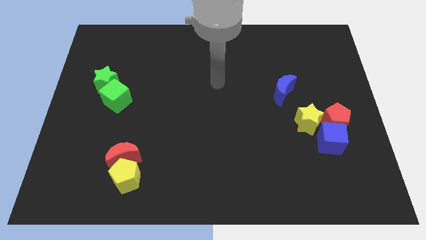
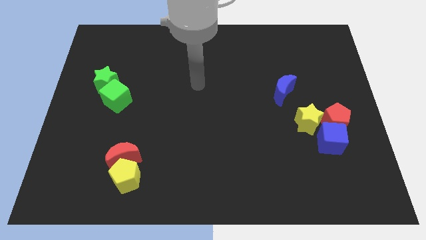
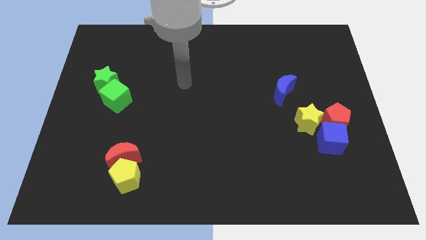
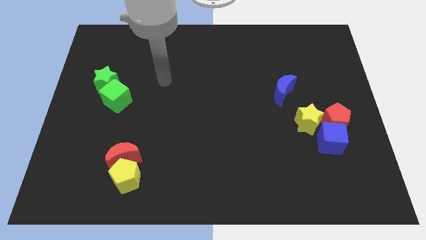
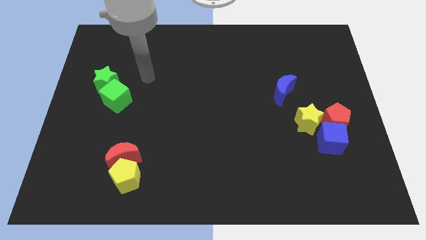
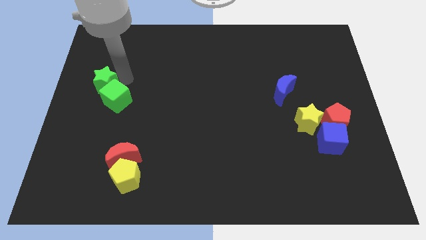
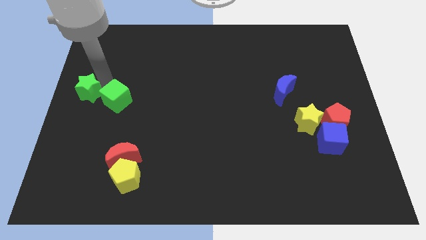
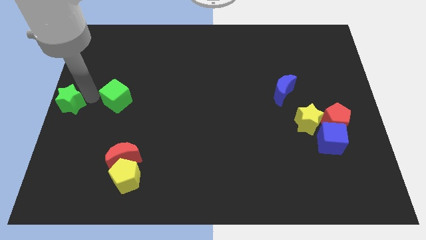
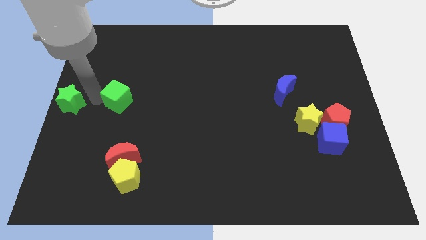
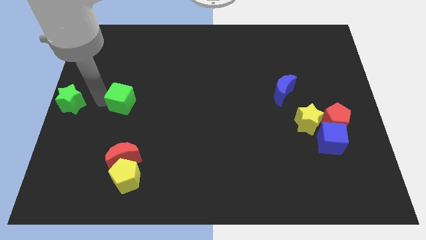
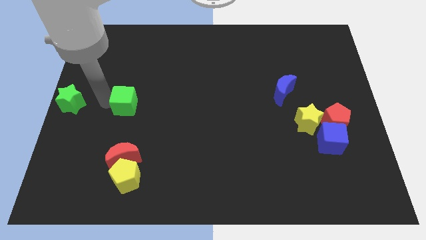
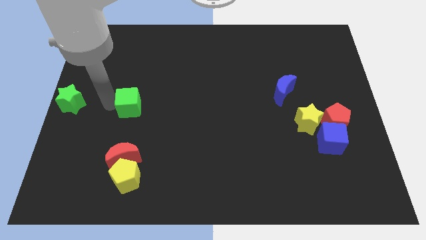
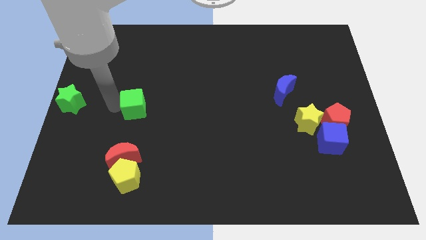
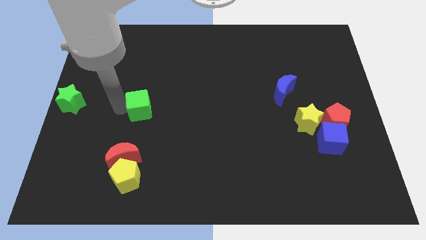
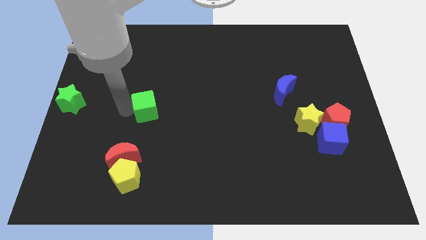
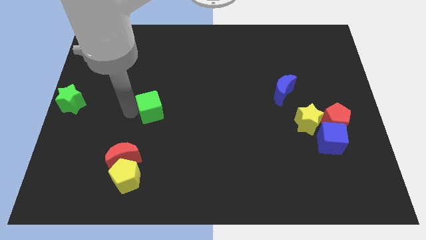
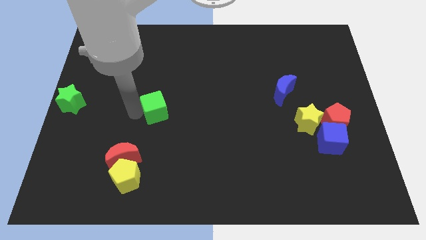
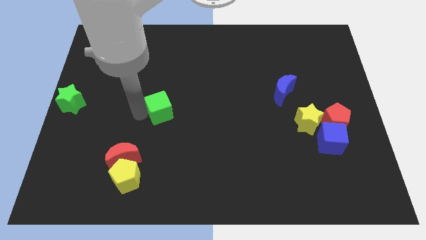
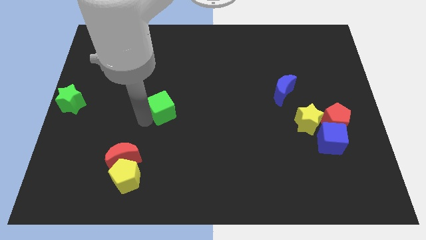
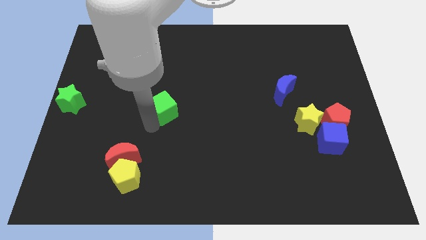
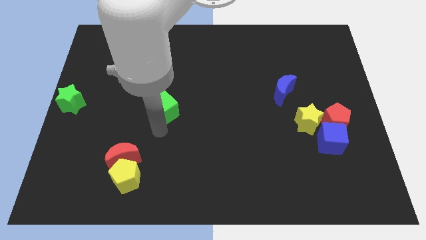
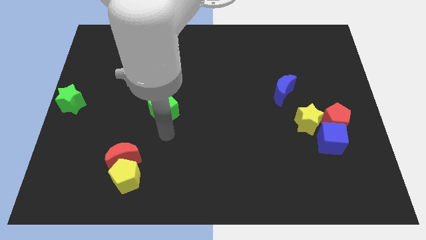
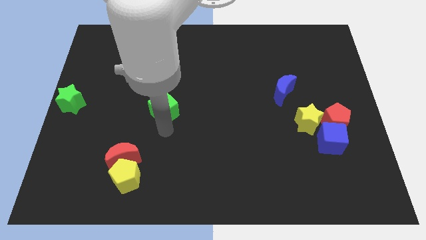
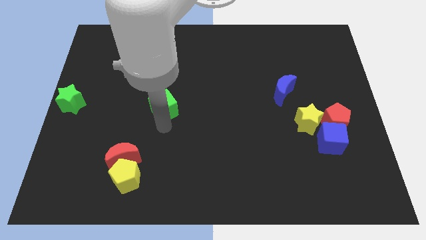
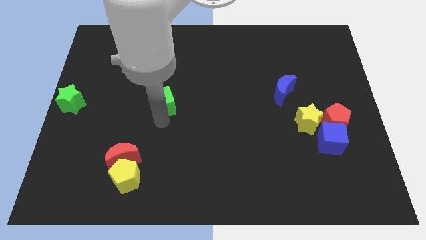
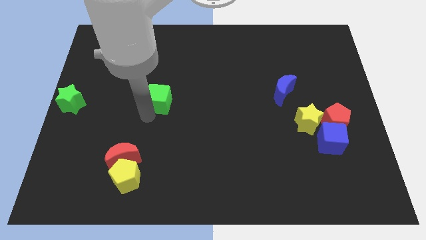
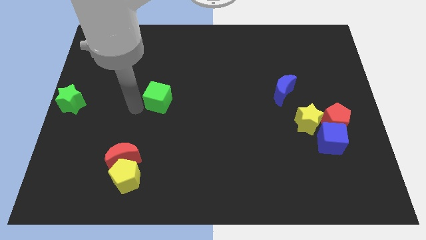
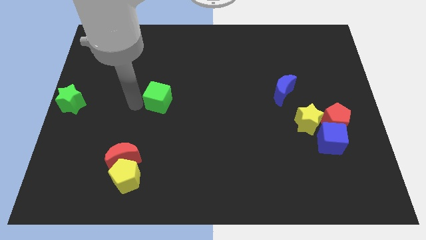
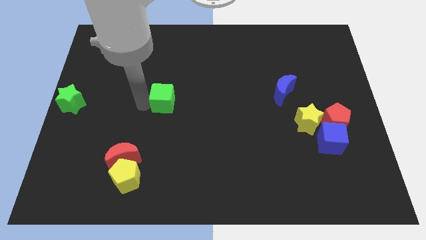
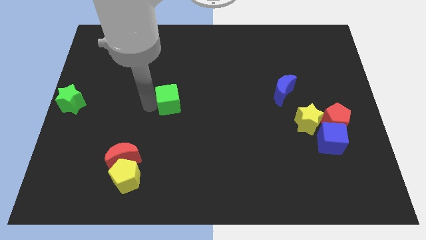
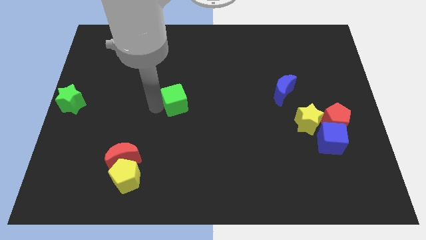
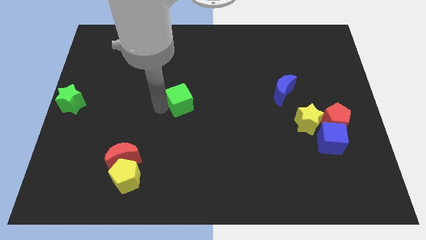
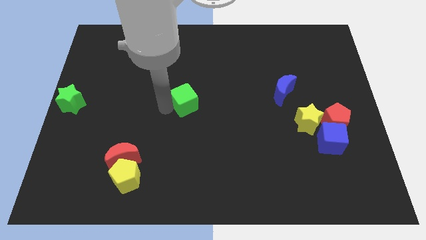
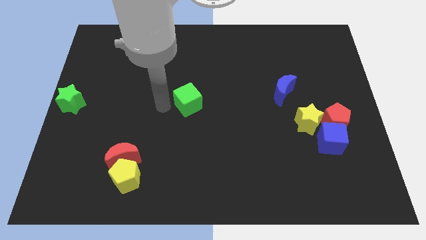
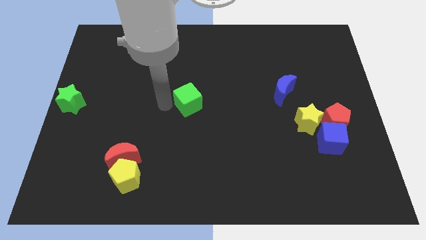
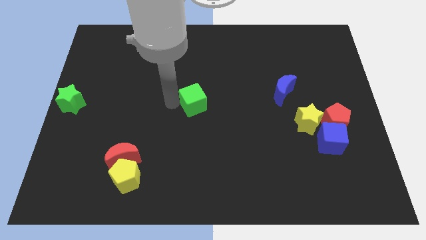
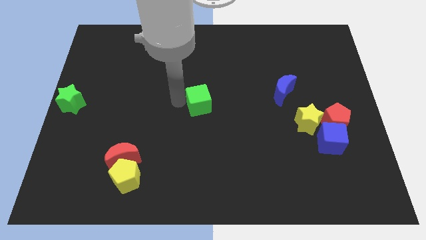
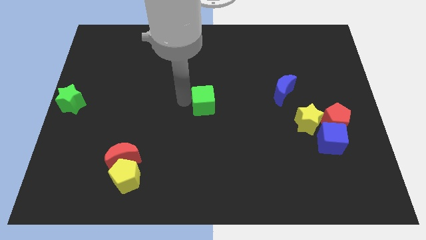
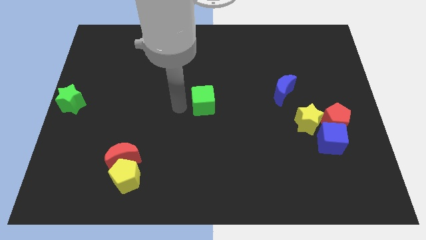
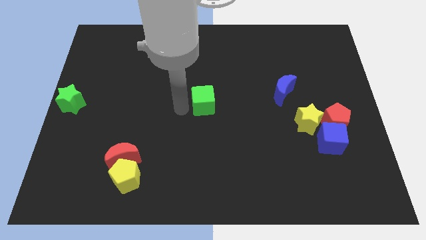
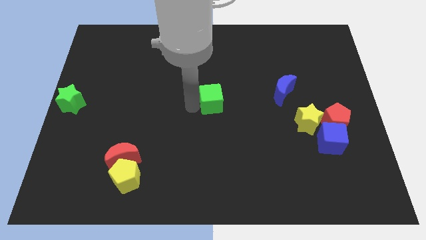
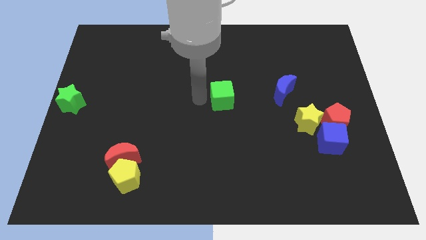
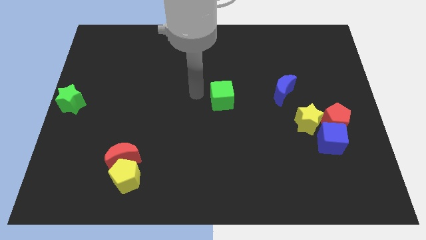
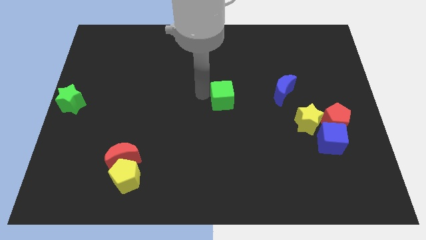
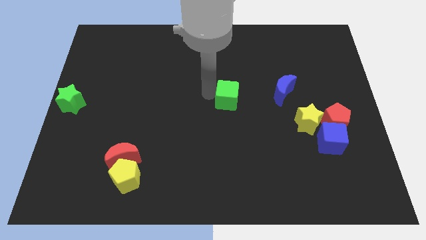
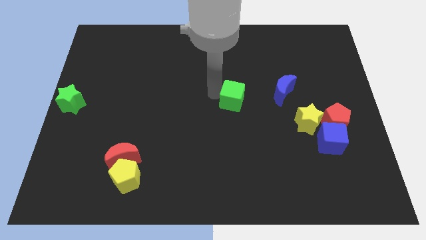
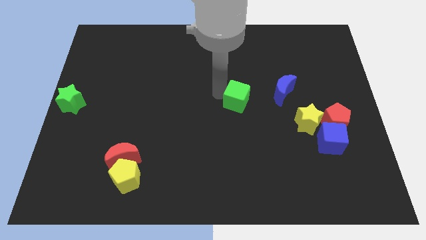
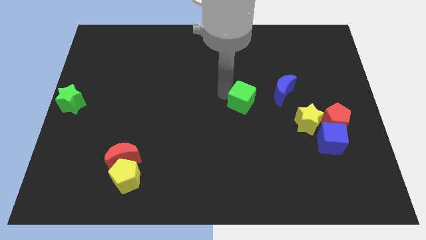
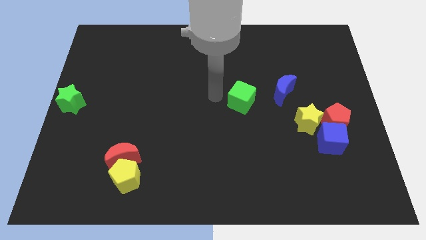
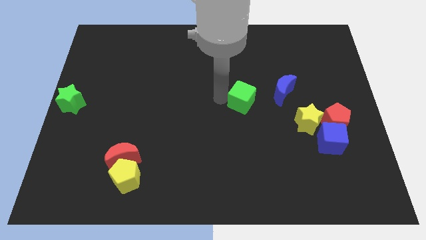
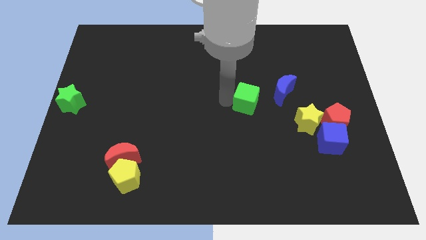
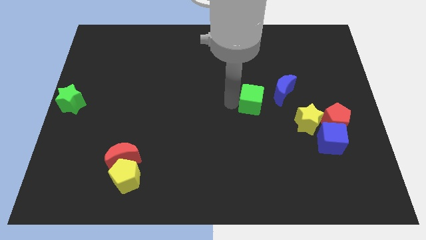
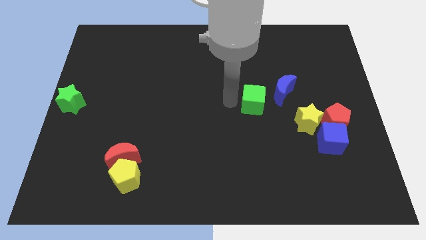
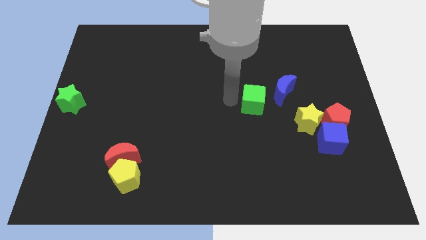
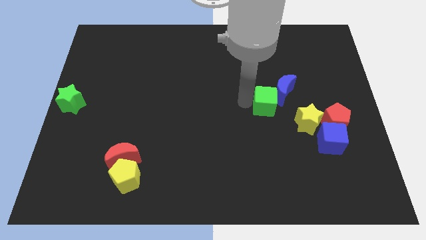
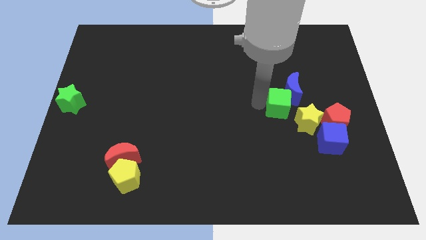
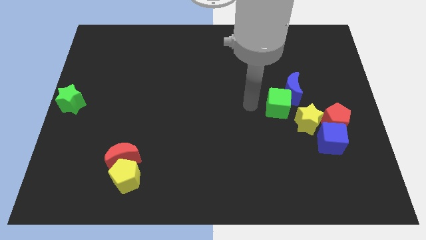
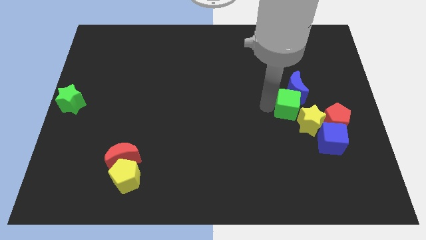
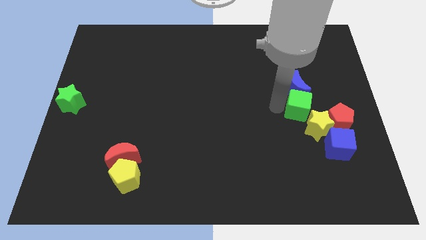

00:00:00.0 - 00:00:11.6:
push the green cube diagonally down and to the right of the blue moon

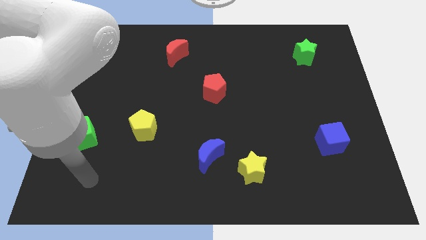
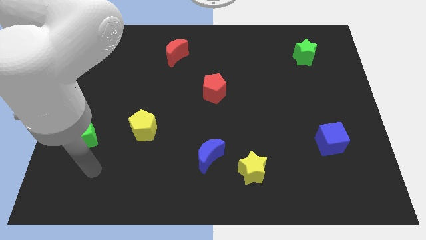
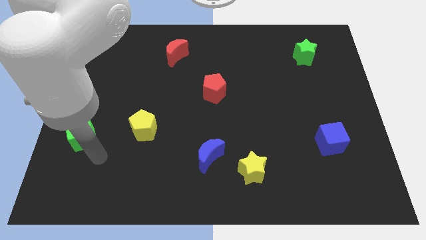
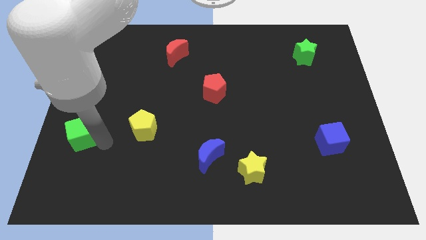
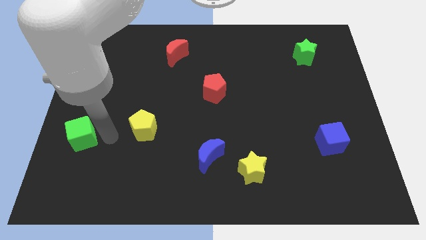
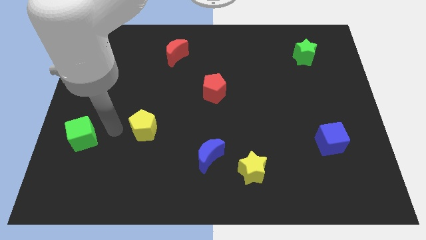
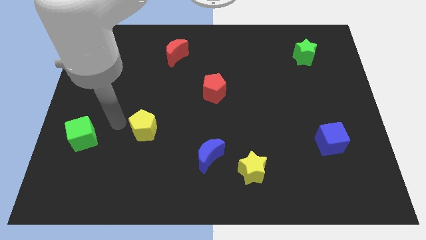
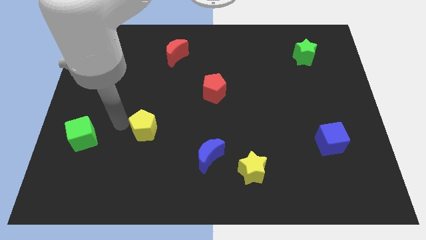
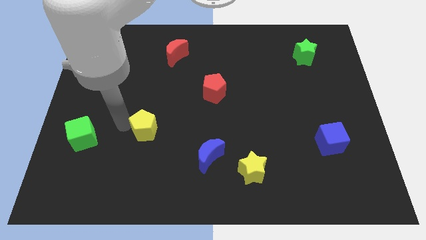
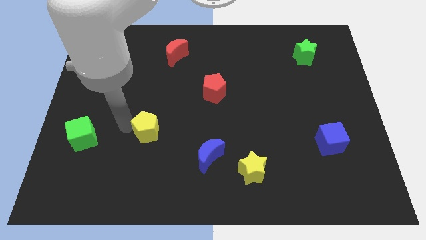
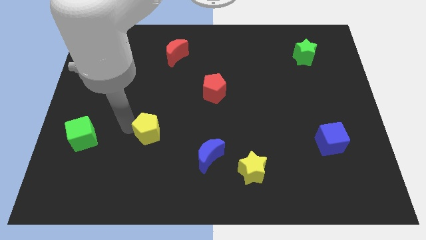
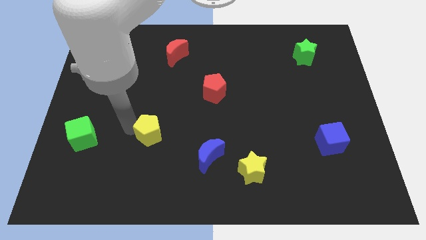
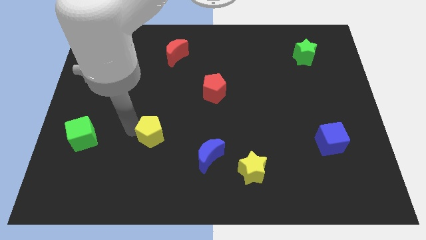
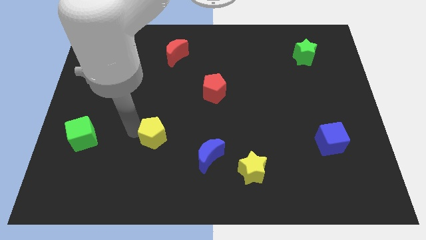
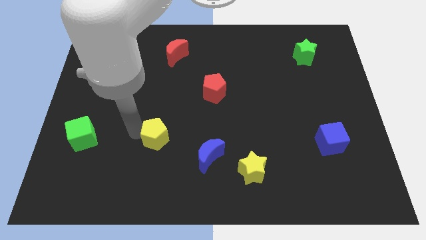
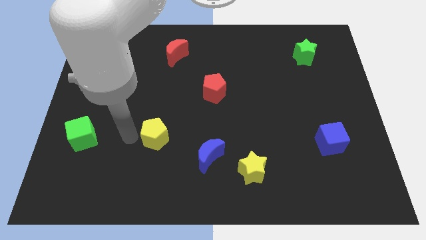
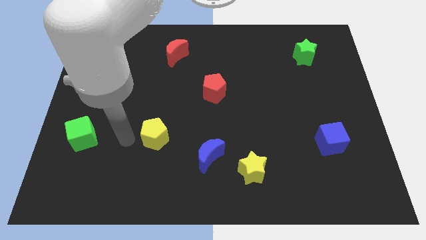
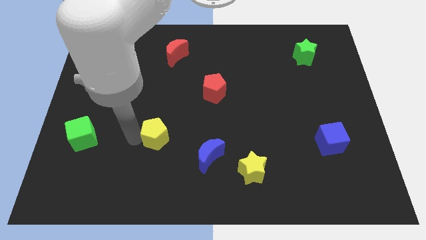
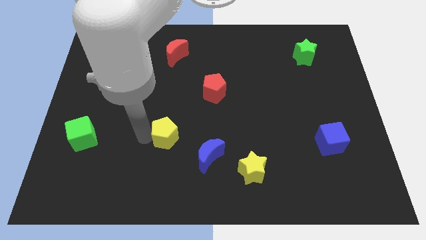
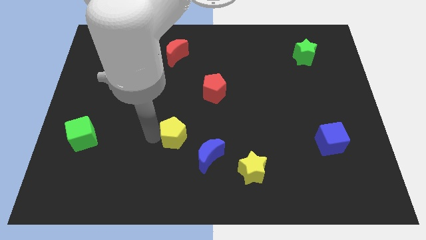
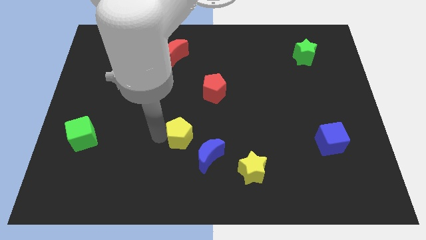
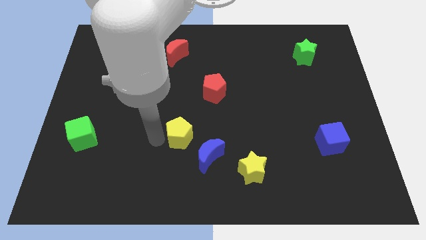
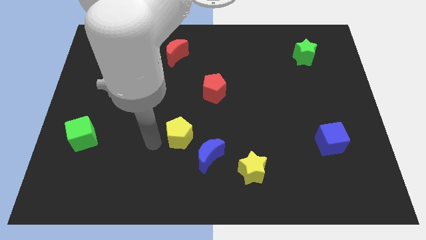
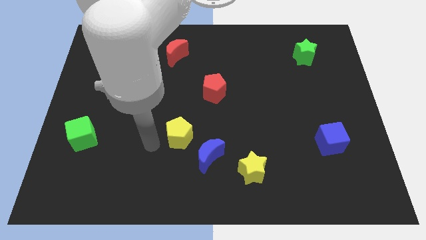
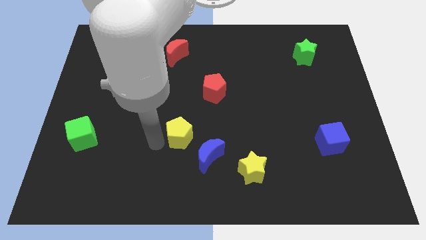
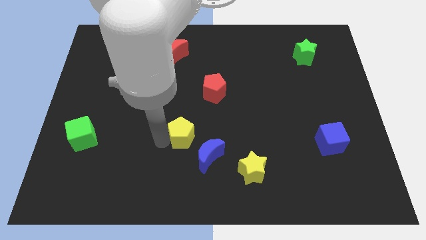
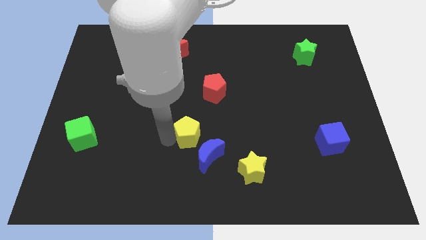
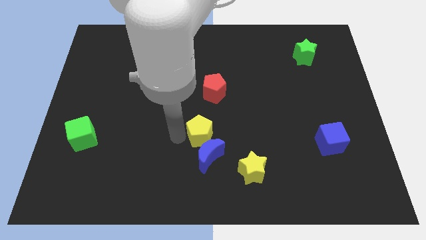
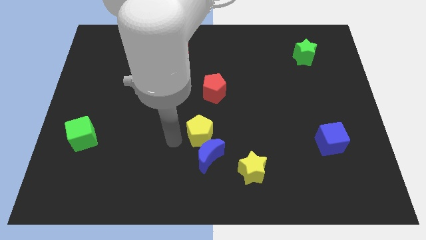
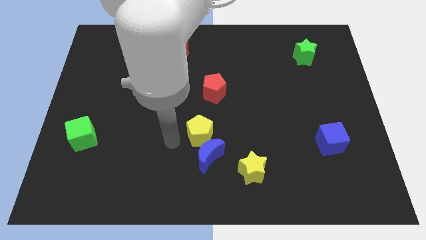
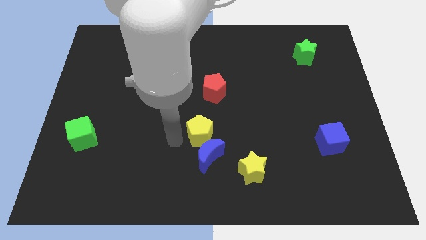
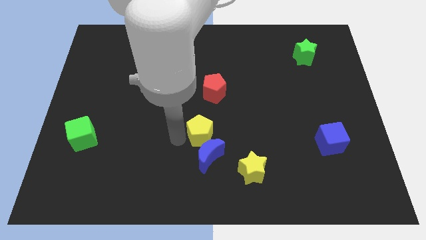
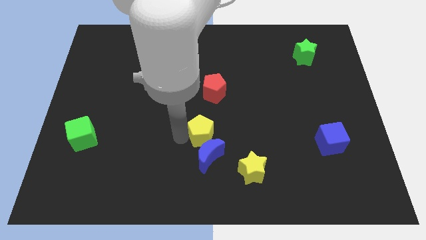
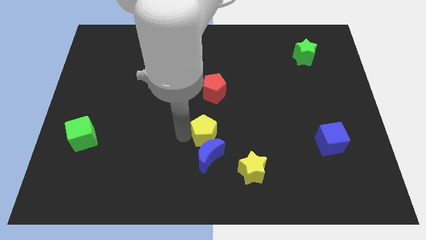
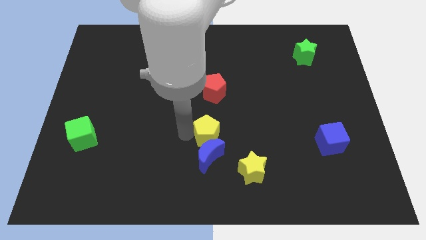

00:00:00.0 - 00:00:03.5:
put the yellow pentagon diagonally up and to the left of the yellow star
